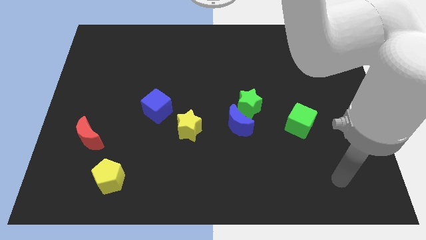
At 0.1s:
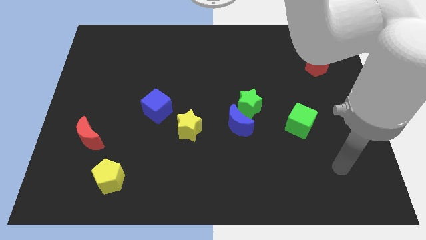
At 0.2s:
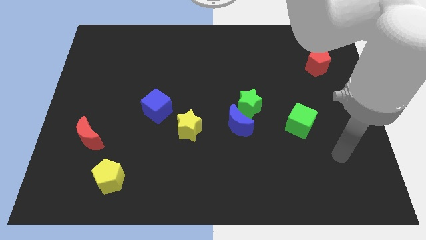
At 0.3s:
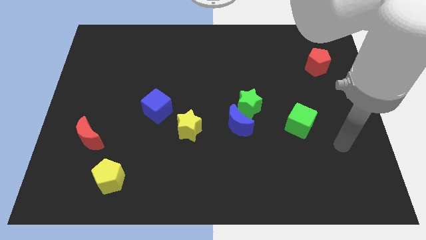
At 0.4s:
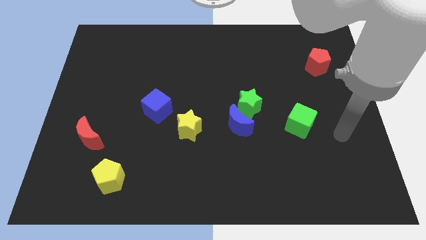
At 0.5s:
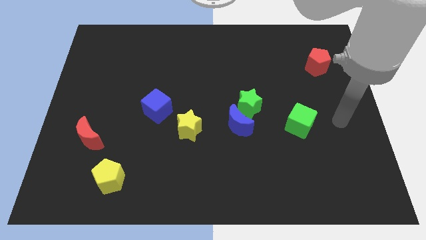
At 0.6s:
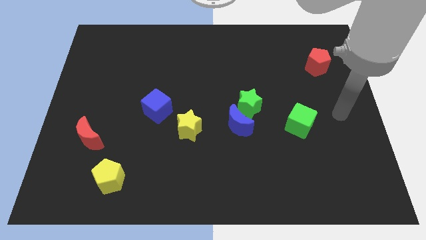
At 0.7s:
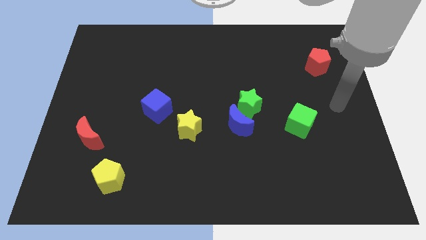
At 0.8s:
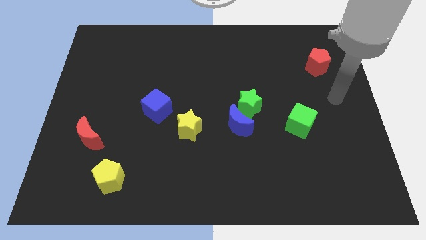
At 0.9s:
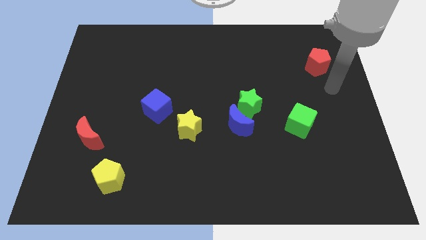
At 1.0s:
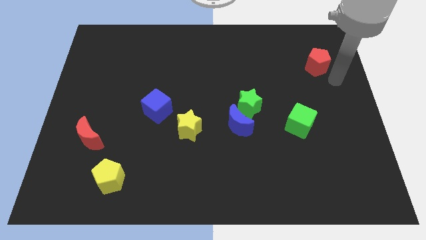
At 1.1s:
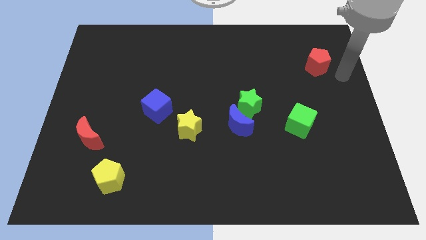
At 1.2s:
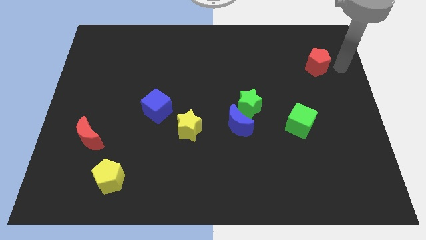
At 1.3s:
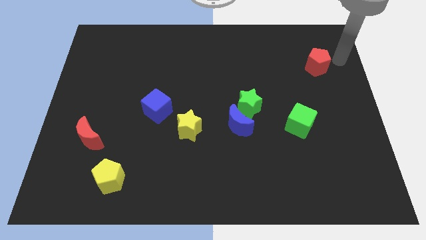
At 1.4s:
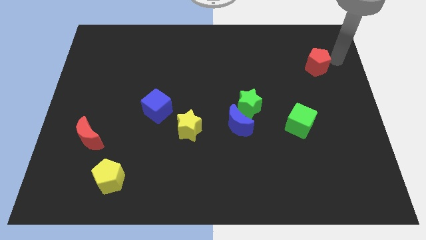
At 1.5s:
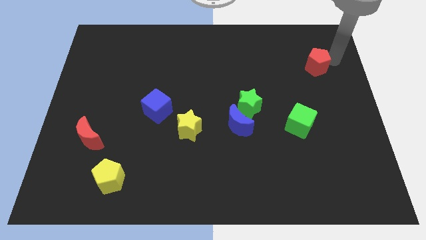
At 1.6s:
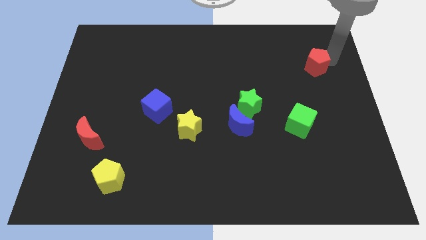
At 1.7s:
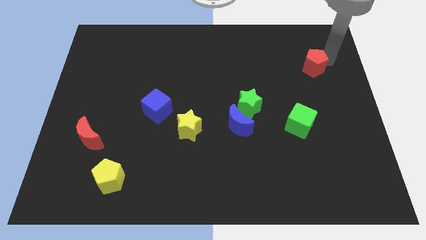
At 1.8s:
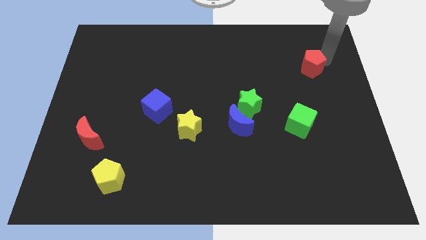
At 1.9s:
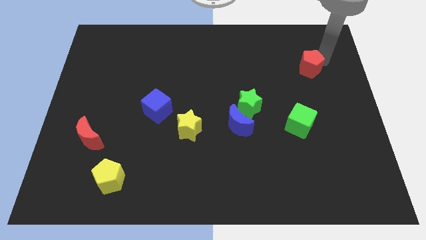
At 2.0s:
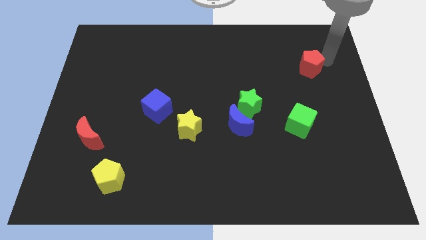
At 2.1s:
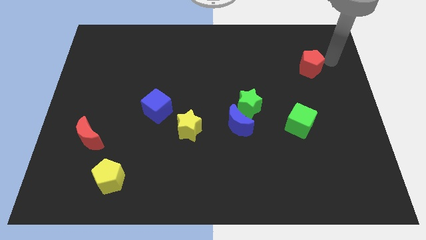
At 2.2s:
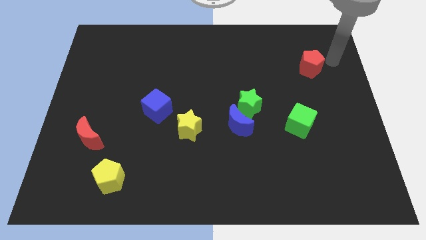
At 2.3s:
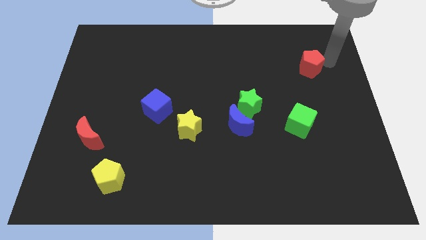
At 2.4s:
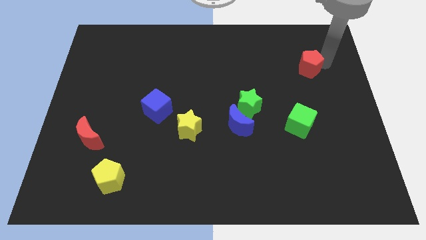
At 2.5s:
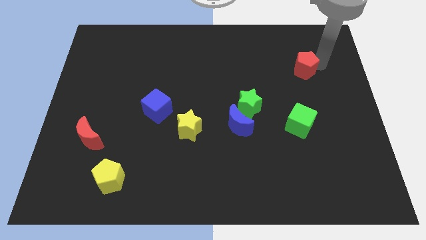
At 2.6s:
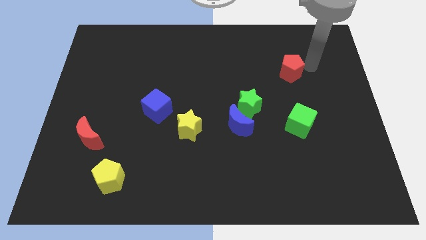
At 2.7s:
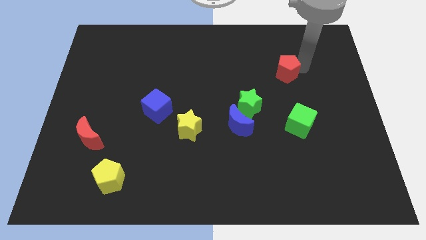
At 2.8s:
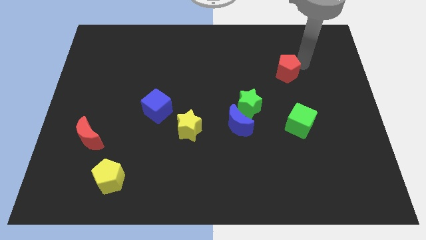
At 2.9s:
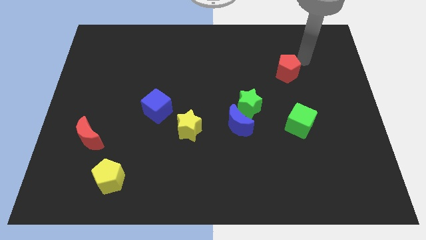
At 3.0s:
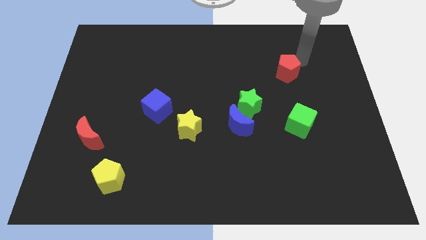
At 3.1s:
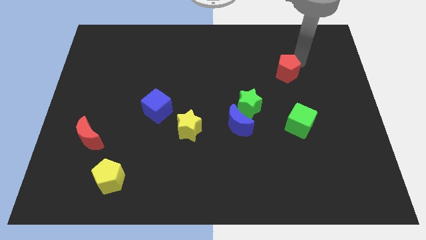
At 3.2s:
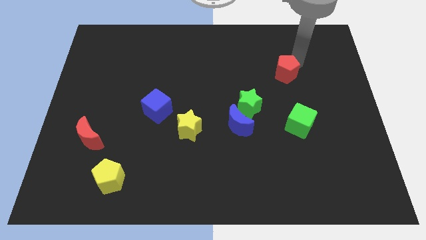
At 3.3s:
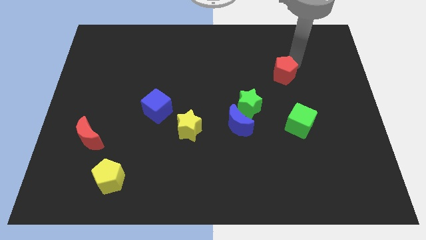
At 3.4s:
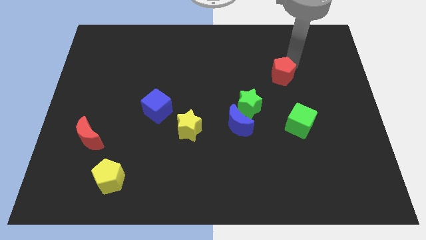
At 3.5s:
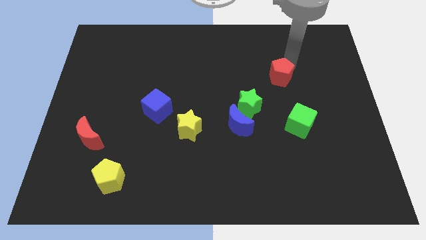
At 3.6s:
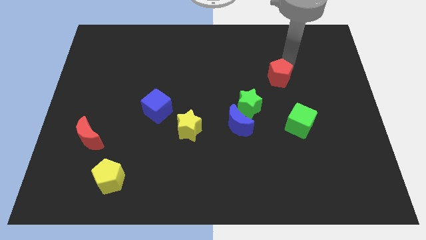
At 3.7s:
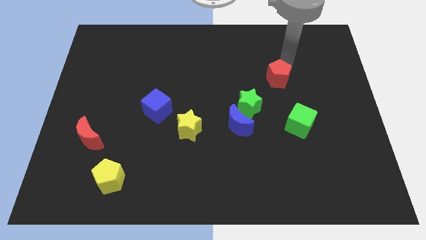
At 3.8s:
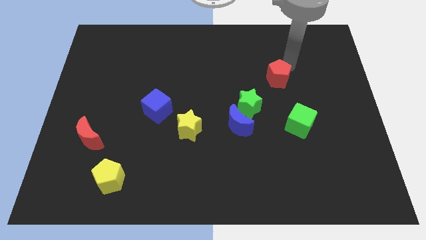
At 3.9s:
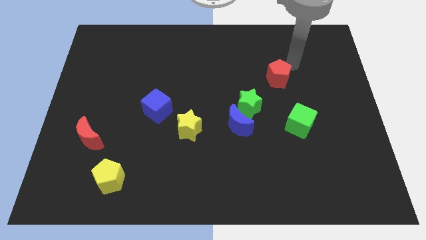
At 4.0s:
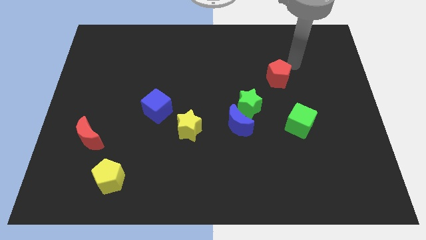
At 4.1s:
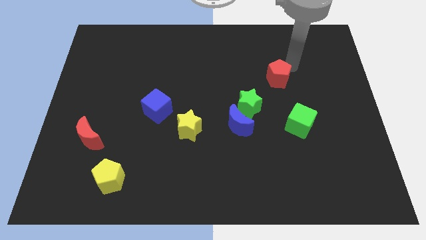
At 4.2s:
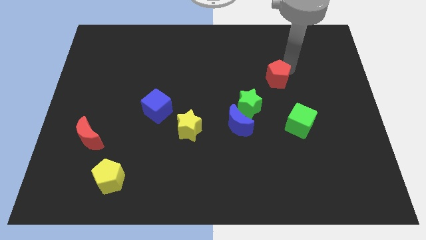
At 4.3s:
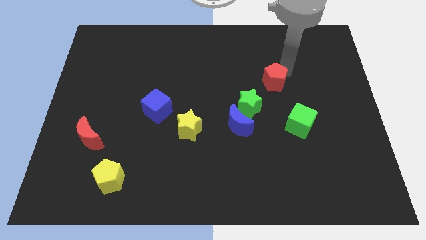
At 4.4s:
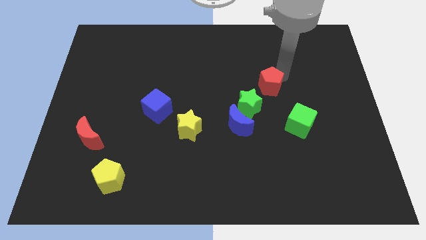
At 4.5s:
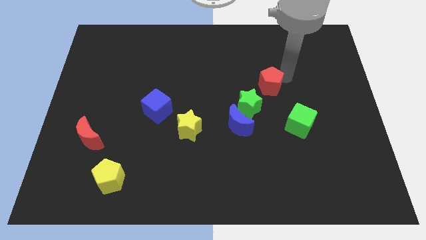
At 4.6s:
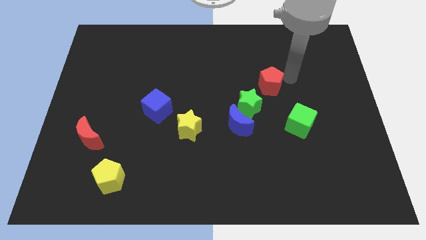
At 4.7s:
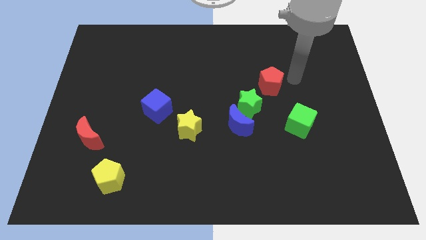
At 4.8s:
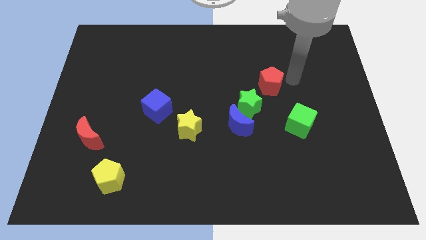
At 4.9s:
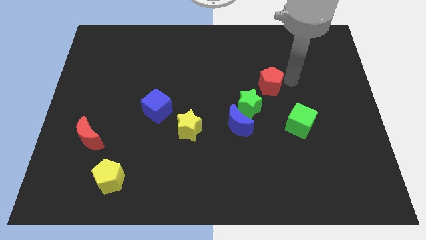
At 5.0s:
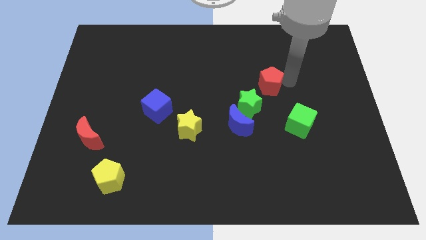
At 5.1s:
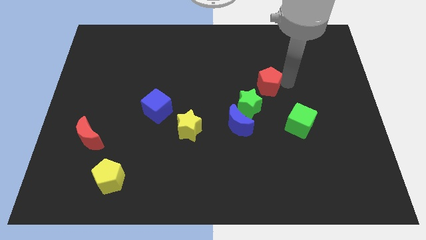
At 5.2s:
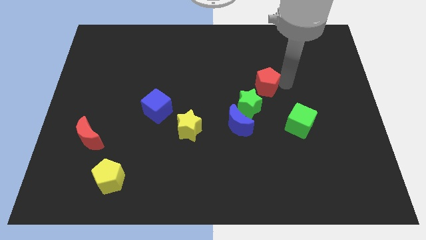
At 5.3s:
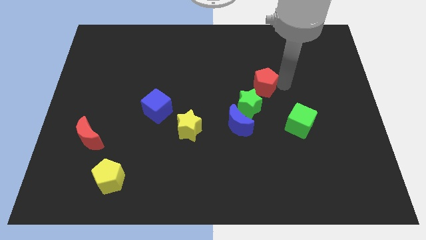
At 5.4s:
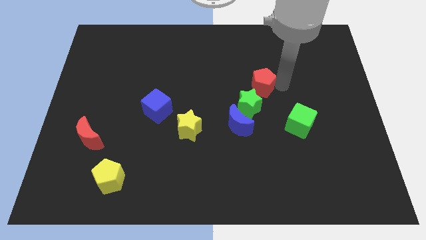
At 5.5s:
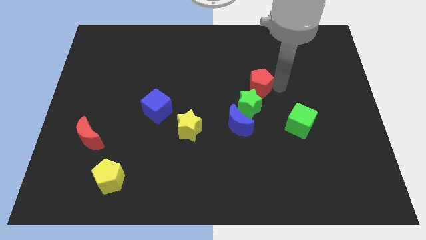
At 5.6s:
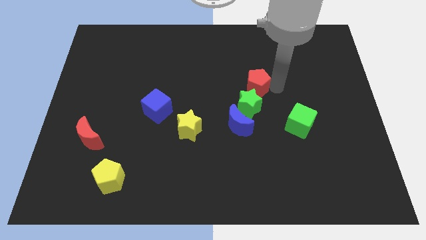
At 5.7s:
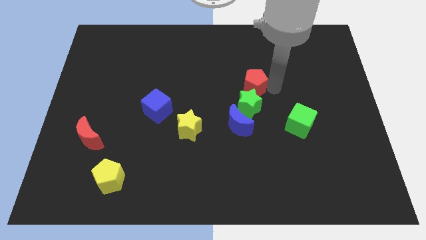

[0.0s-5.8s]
move the red pentagon to the top side of the blue moon

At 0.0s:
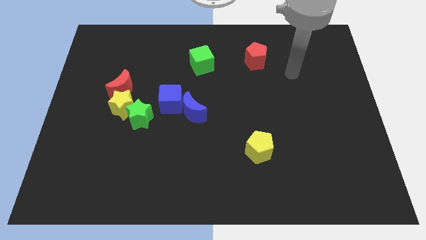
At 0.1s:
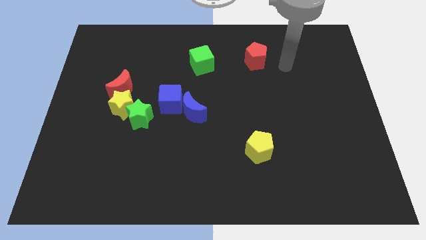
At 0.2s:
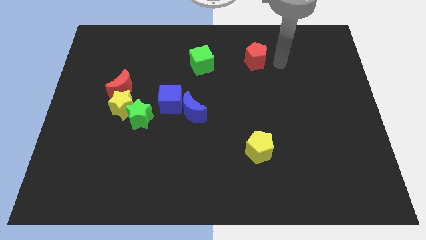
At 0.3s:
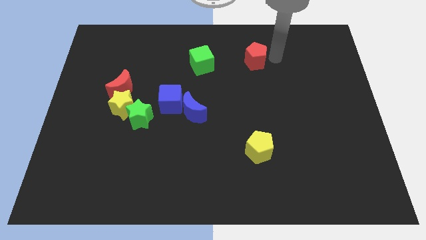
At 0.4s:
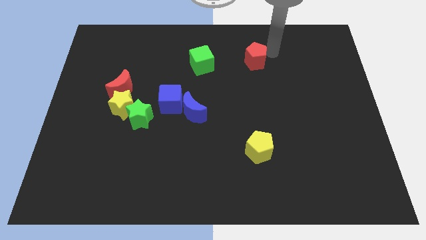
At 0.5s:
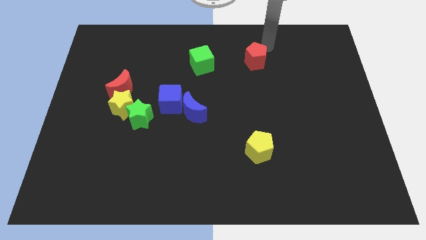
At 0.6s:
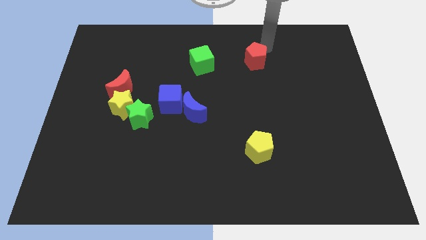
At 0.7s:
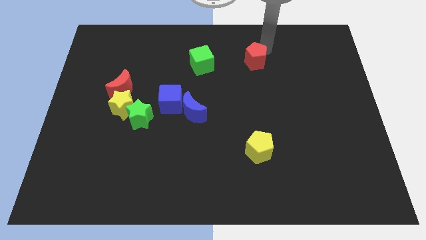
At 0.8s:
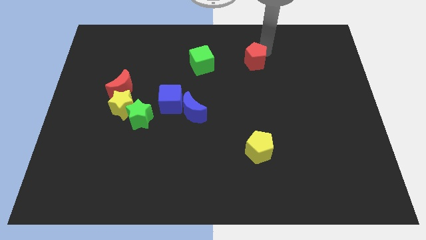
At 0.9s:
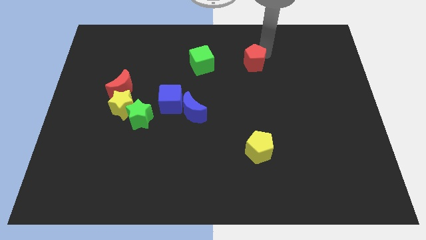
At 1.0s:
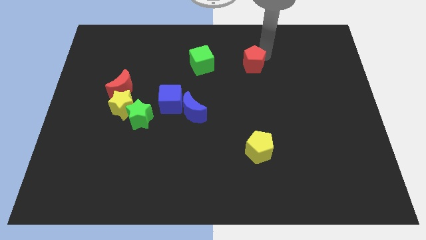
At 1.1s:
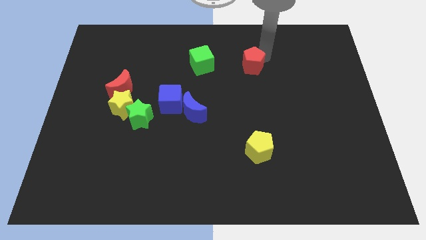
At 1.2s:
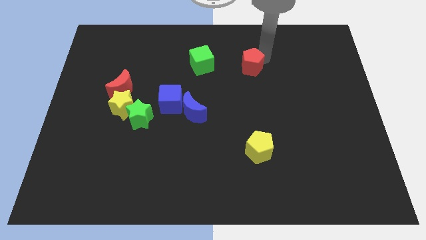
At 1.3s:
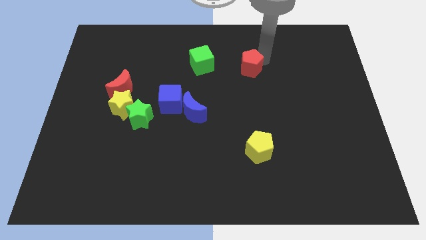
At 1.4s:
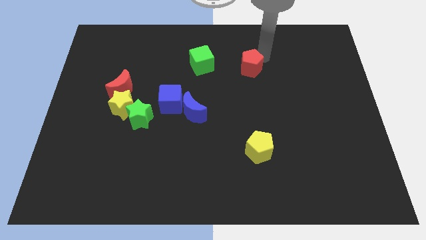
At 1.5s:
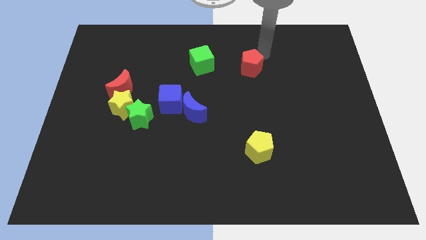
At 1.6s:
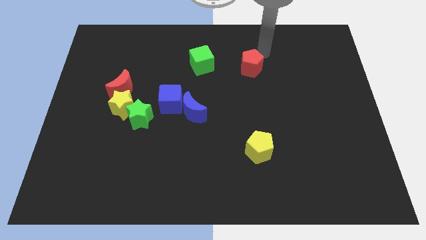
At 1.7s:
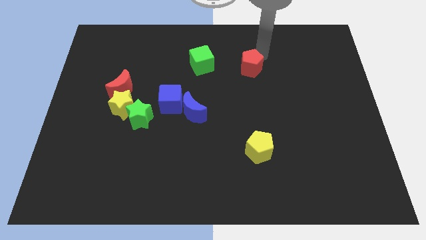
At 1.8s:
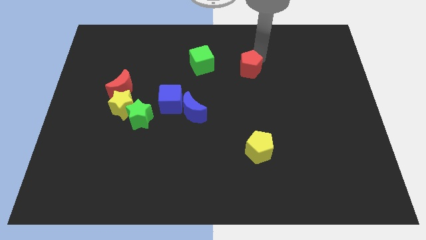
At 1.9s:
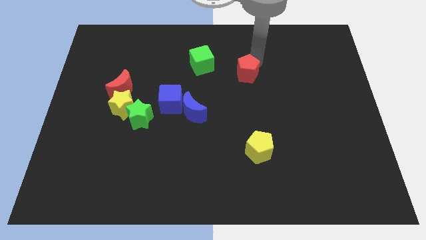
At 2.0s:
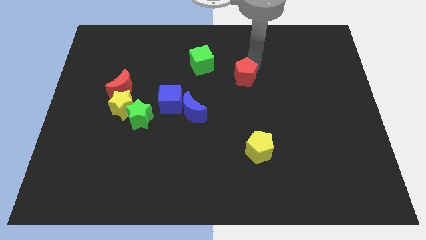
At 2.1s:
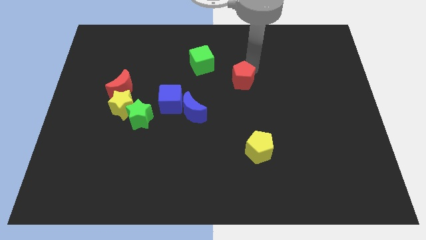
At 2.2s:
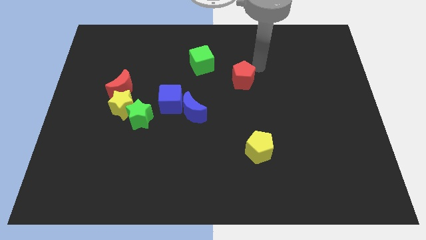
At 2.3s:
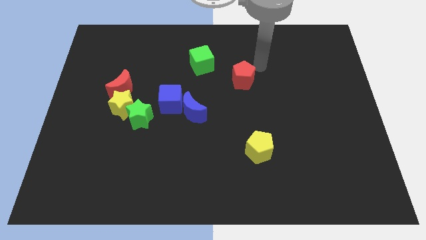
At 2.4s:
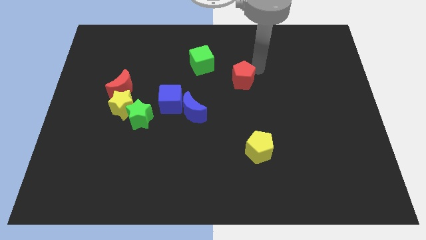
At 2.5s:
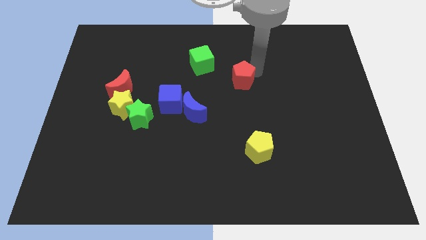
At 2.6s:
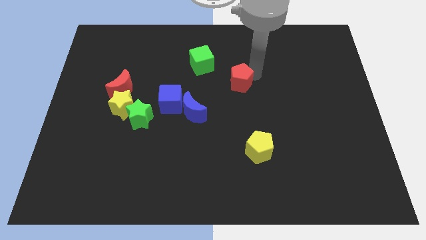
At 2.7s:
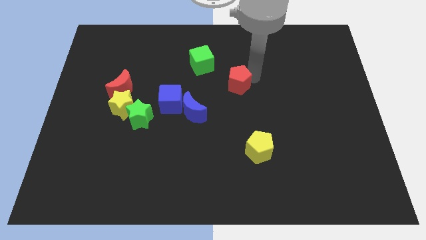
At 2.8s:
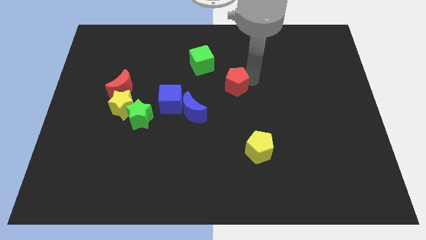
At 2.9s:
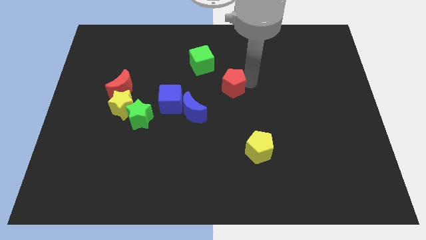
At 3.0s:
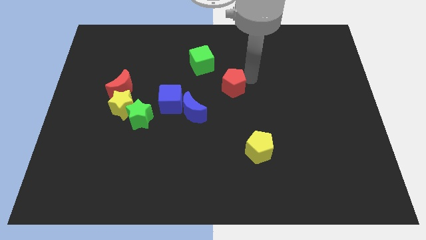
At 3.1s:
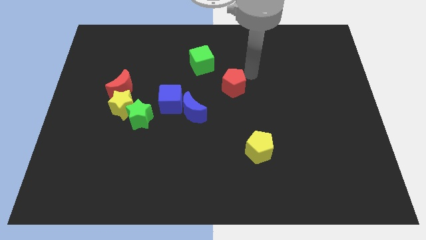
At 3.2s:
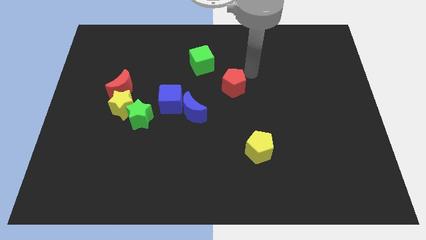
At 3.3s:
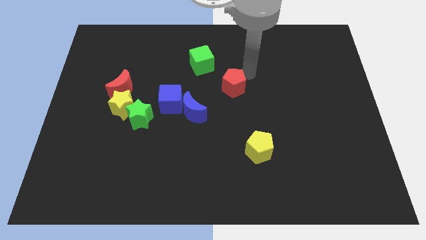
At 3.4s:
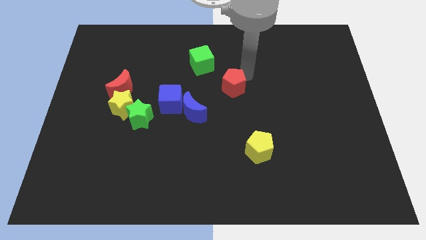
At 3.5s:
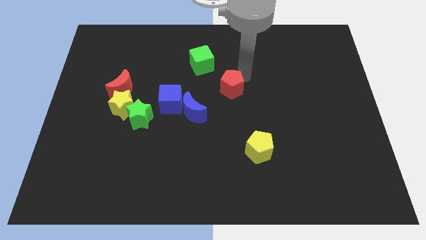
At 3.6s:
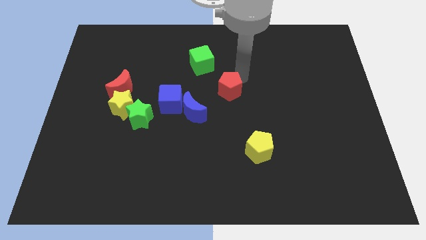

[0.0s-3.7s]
slide the red pentagon just right of the blue cube
